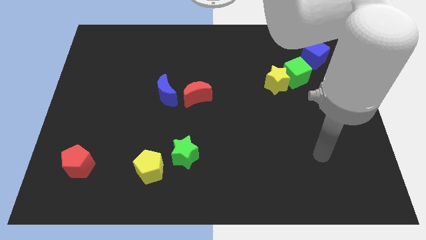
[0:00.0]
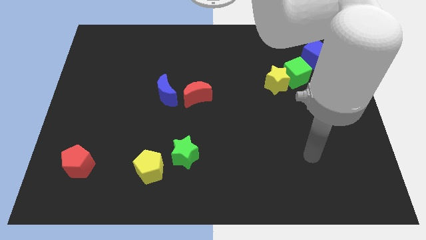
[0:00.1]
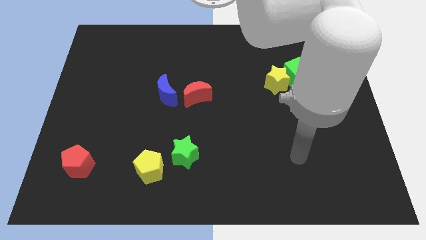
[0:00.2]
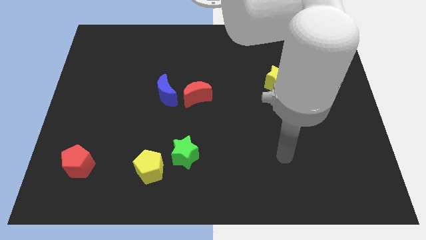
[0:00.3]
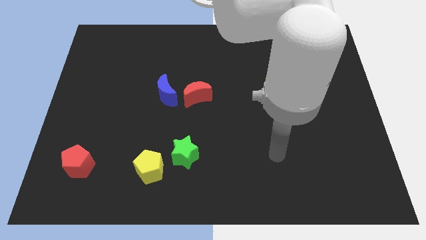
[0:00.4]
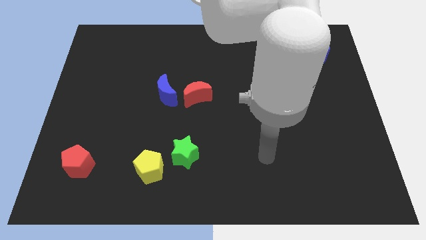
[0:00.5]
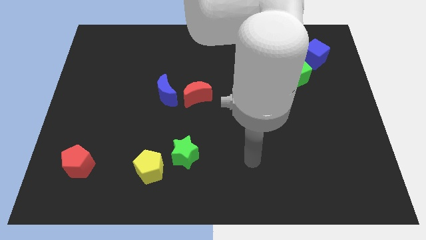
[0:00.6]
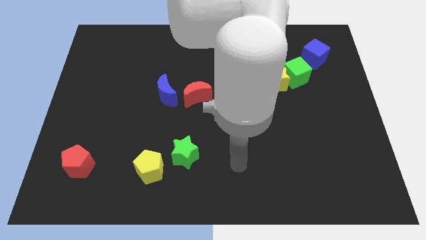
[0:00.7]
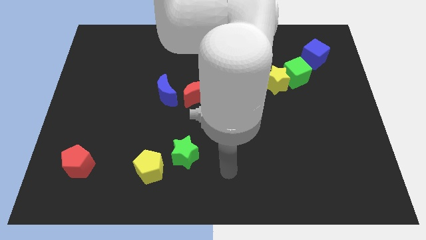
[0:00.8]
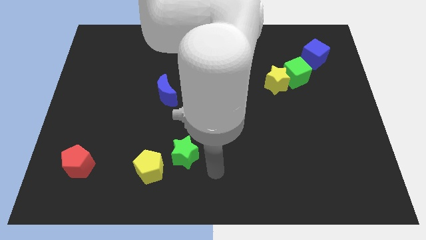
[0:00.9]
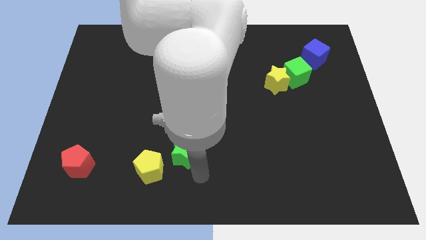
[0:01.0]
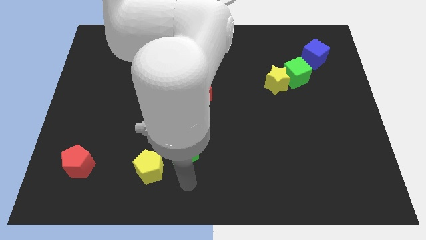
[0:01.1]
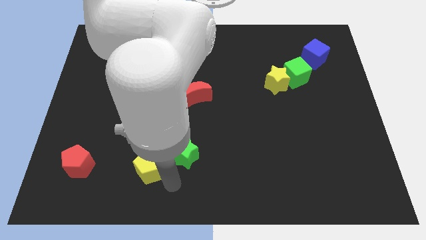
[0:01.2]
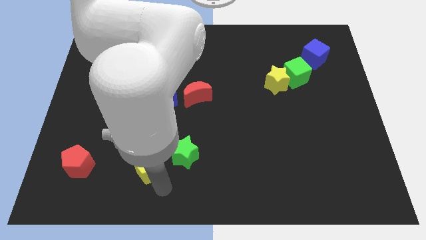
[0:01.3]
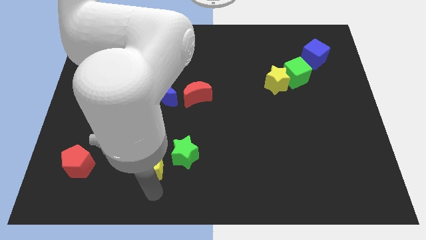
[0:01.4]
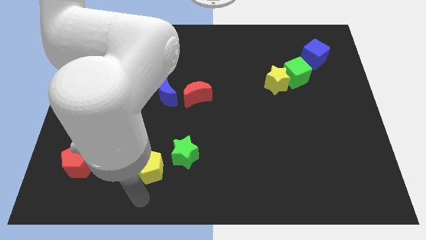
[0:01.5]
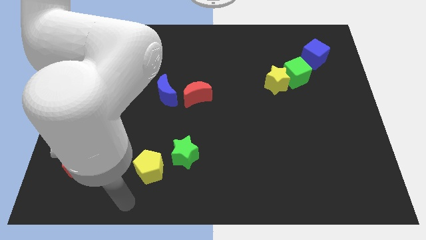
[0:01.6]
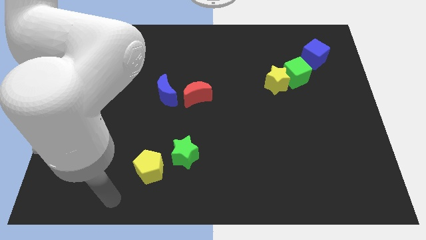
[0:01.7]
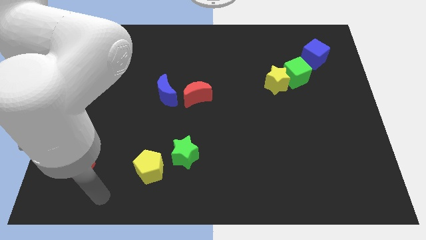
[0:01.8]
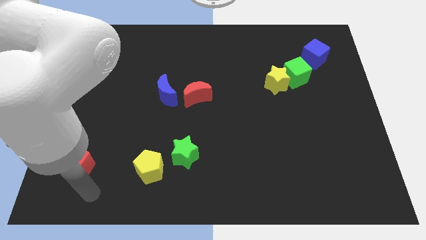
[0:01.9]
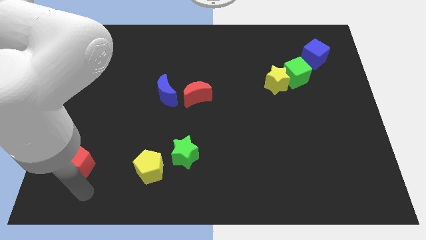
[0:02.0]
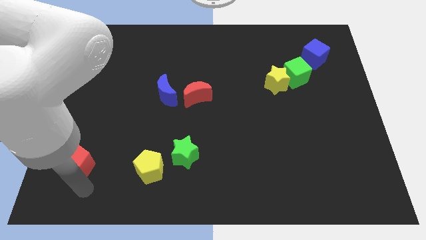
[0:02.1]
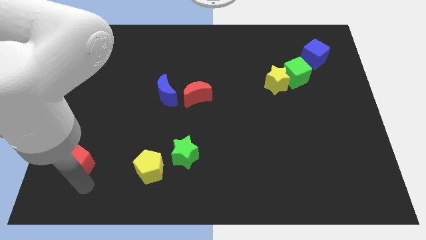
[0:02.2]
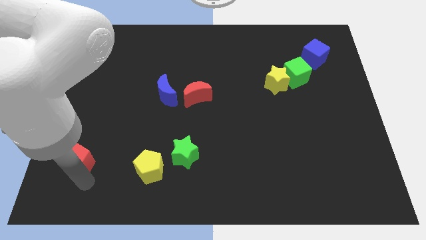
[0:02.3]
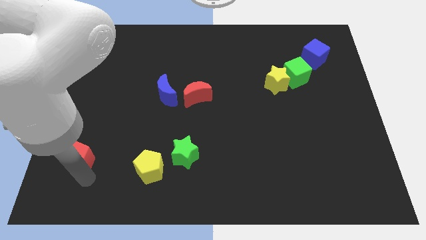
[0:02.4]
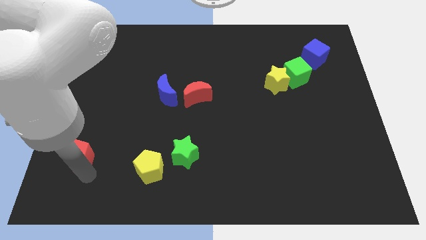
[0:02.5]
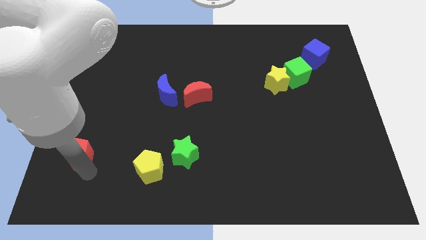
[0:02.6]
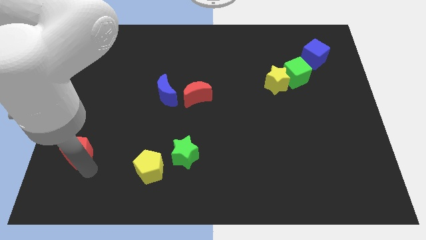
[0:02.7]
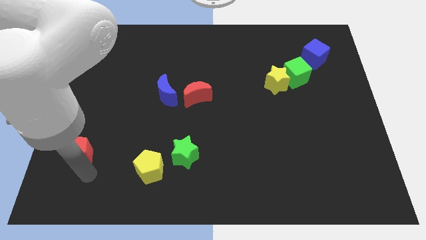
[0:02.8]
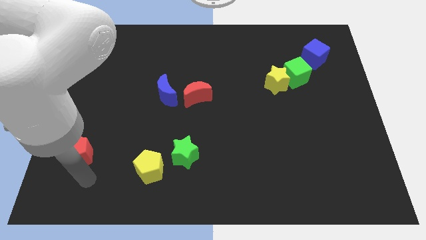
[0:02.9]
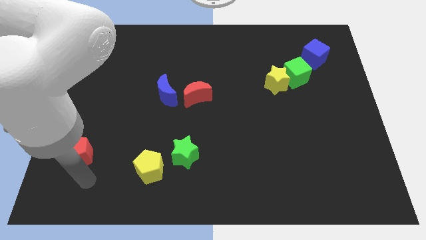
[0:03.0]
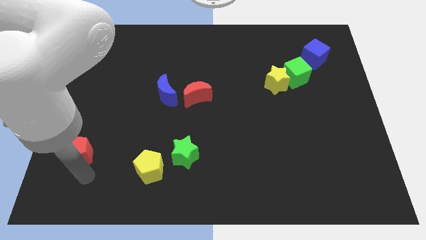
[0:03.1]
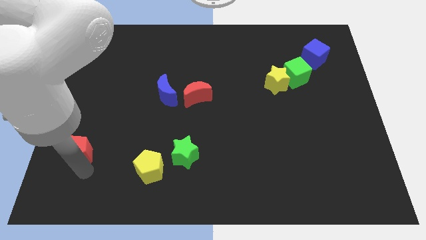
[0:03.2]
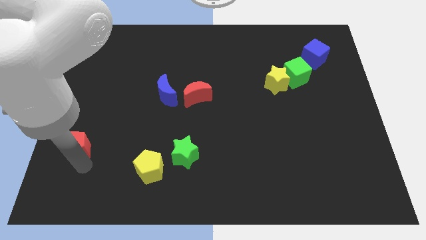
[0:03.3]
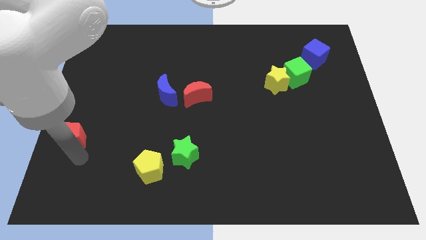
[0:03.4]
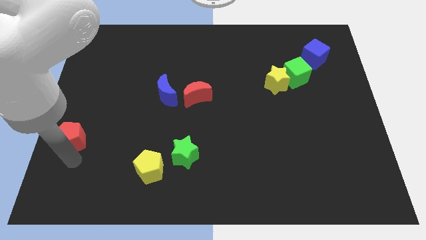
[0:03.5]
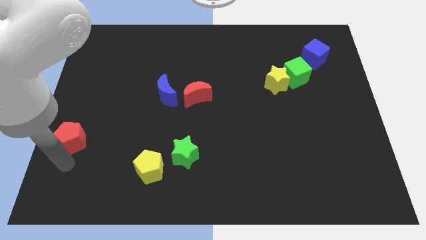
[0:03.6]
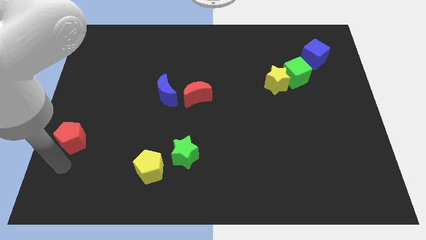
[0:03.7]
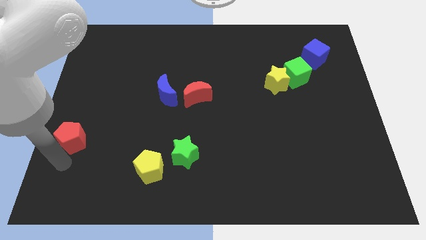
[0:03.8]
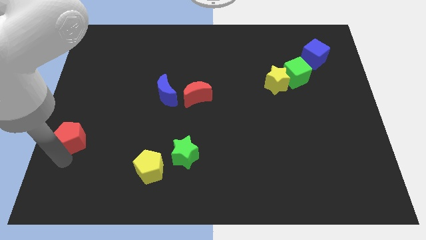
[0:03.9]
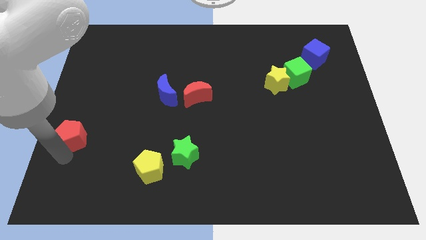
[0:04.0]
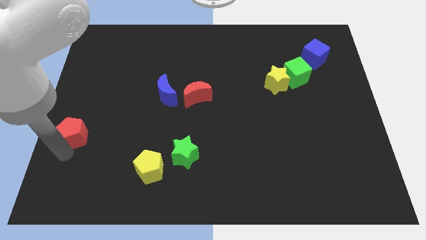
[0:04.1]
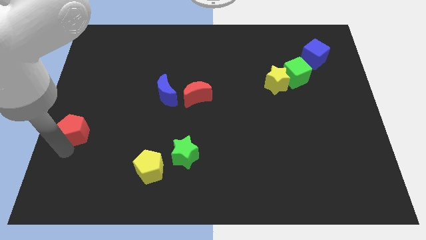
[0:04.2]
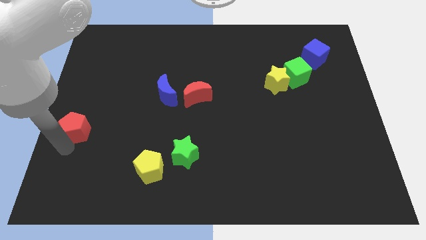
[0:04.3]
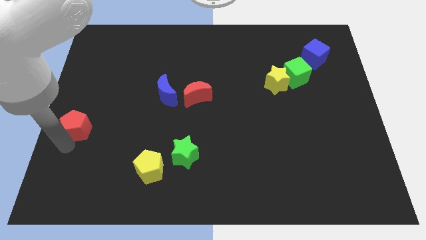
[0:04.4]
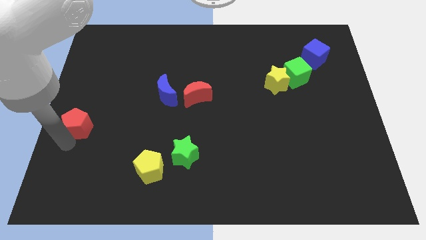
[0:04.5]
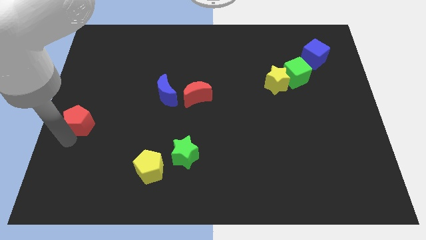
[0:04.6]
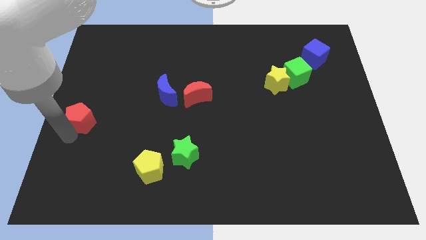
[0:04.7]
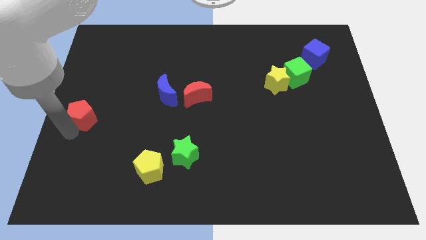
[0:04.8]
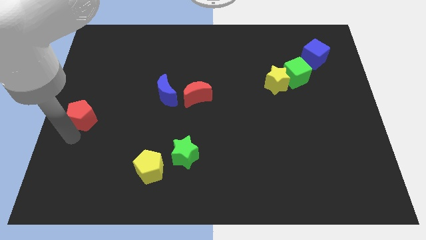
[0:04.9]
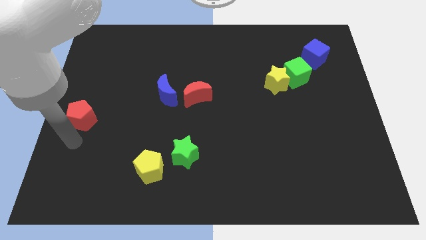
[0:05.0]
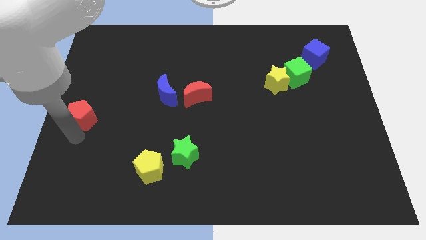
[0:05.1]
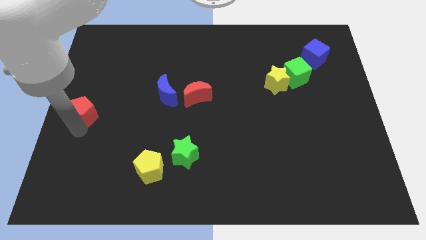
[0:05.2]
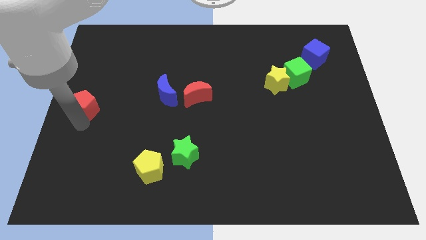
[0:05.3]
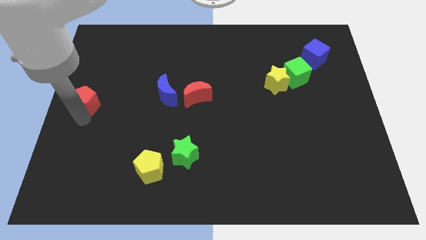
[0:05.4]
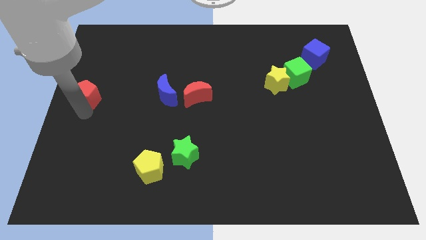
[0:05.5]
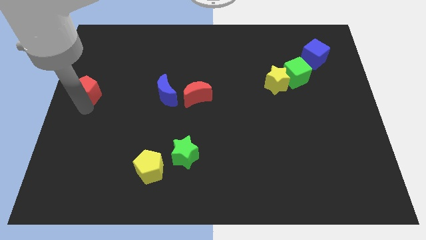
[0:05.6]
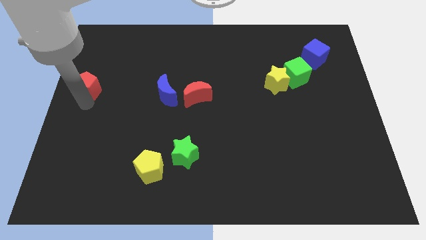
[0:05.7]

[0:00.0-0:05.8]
move the red pentagon up

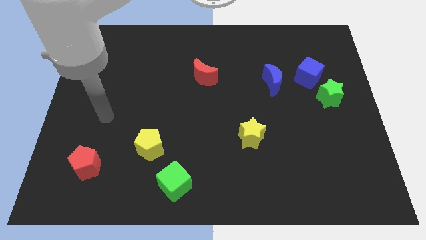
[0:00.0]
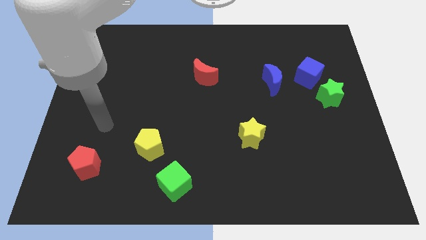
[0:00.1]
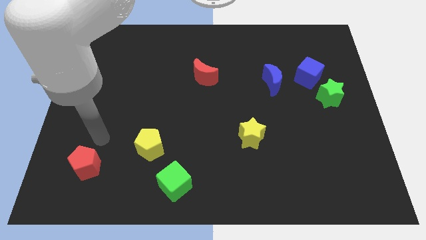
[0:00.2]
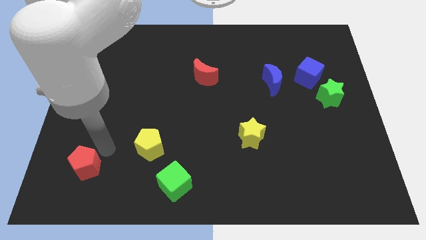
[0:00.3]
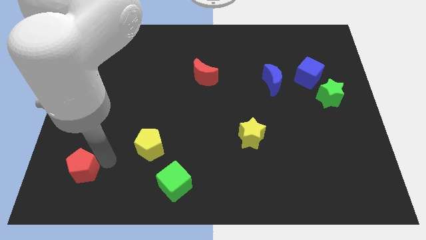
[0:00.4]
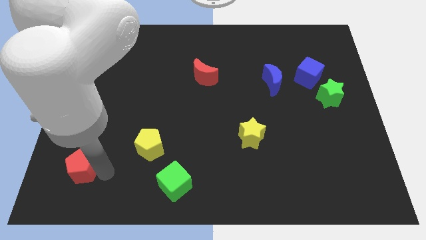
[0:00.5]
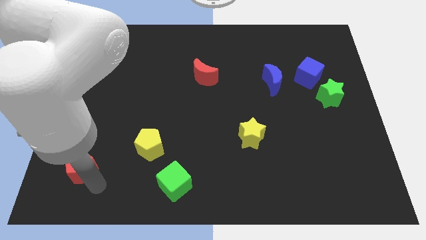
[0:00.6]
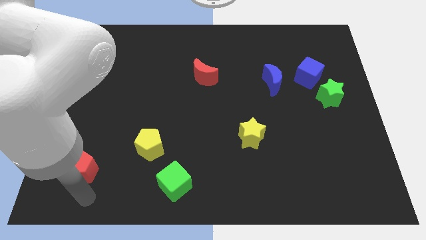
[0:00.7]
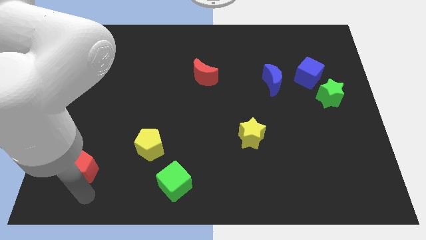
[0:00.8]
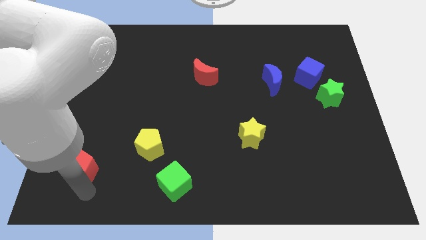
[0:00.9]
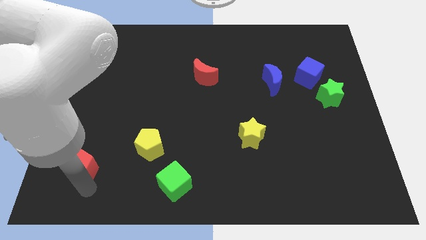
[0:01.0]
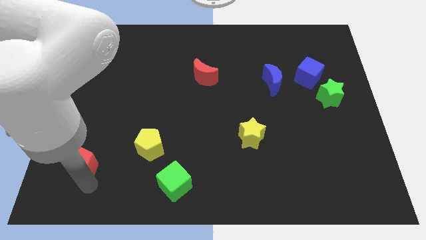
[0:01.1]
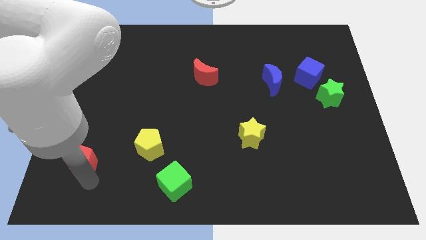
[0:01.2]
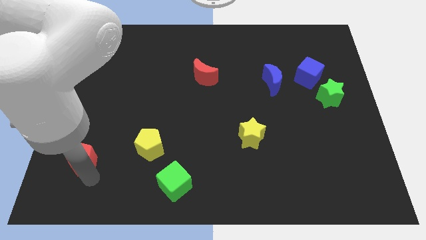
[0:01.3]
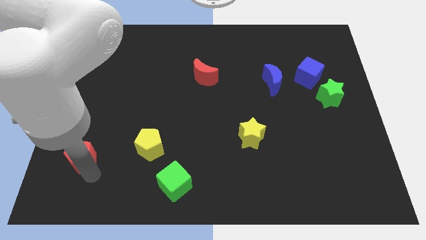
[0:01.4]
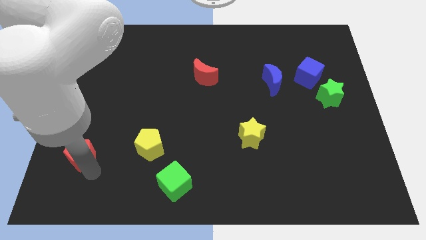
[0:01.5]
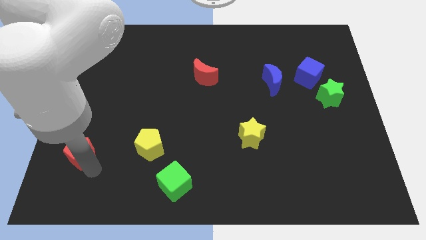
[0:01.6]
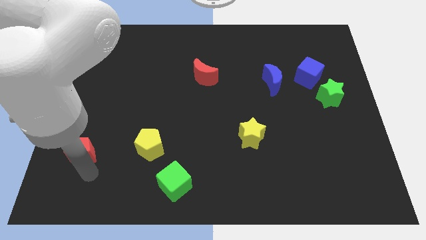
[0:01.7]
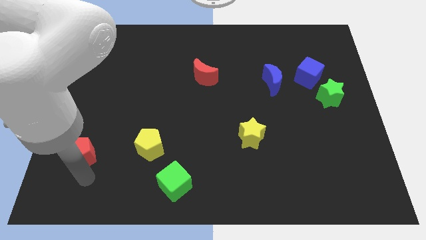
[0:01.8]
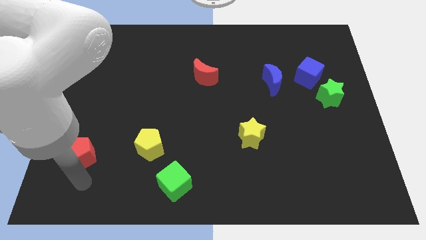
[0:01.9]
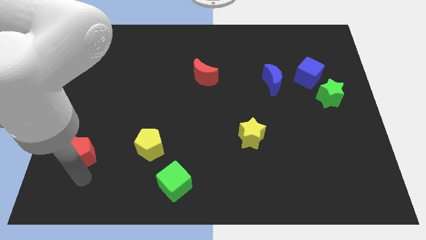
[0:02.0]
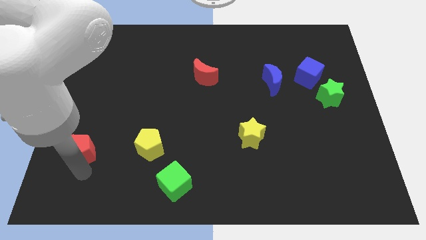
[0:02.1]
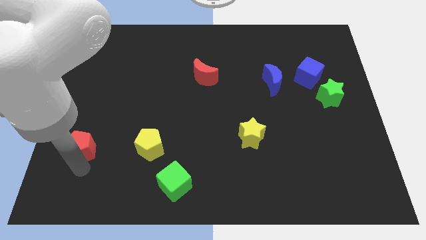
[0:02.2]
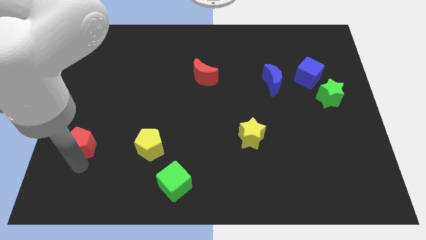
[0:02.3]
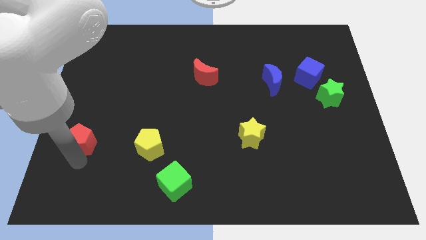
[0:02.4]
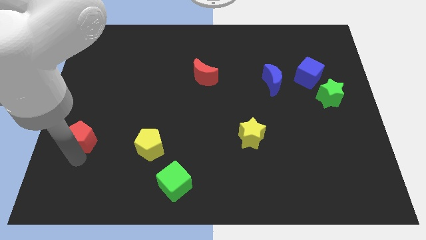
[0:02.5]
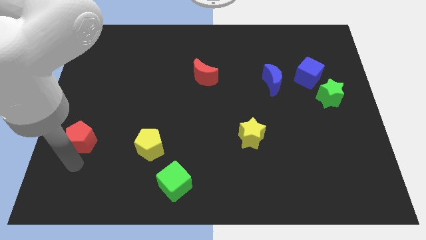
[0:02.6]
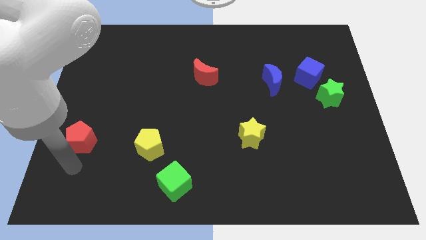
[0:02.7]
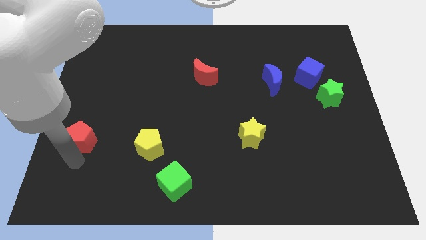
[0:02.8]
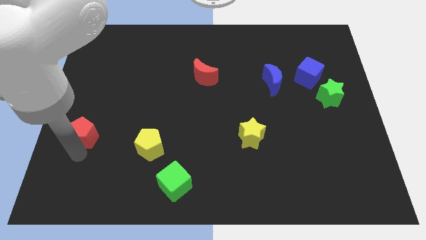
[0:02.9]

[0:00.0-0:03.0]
move the red pentagon upwards a little
